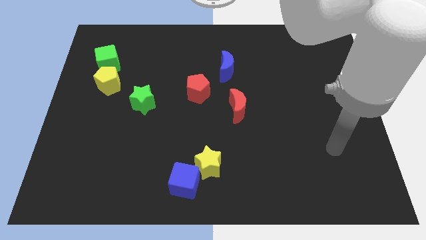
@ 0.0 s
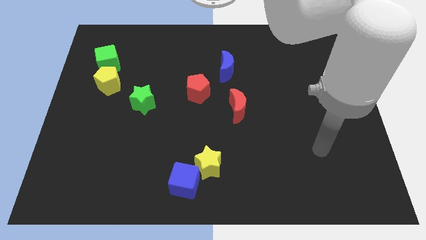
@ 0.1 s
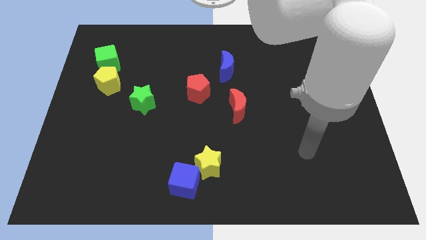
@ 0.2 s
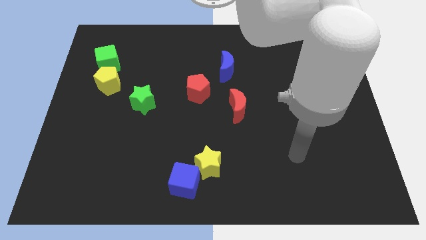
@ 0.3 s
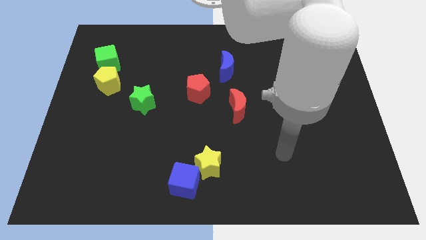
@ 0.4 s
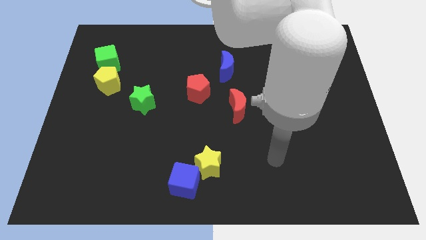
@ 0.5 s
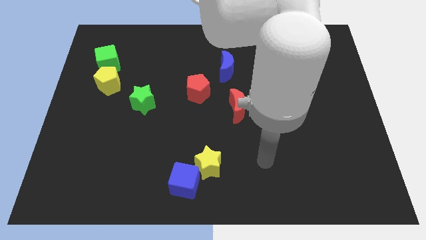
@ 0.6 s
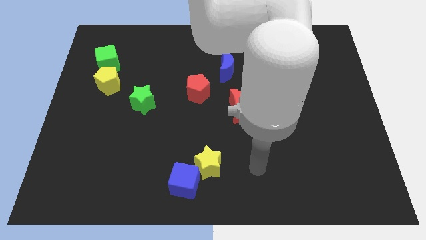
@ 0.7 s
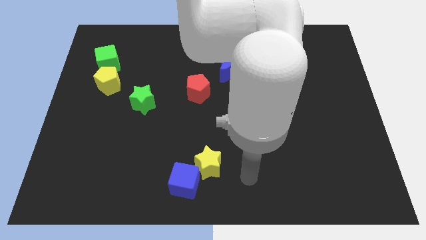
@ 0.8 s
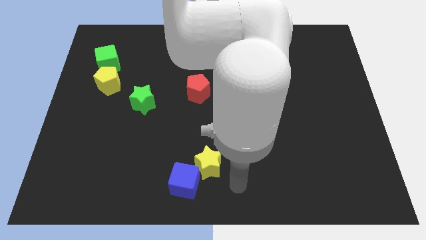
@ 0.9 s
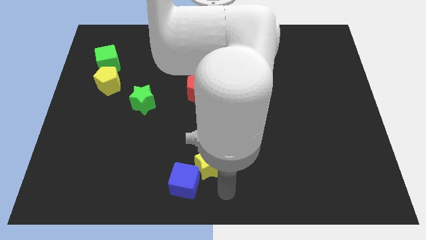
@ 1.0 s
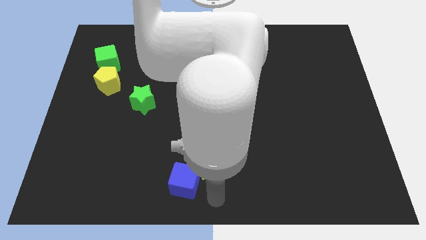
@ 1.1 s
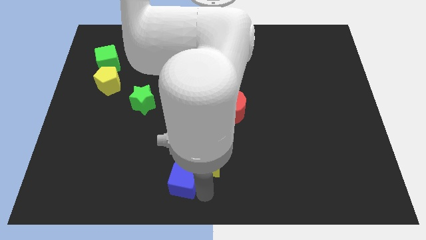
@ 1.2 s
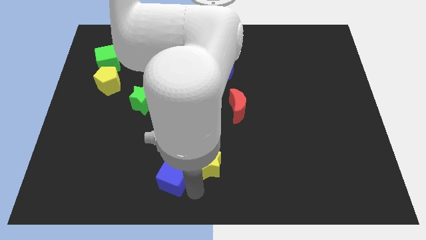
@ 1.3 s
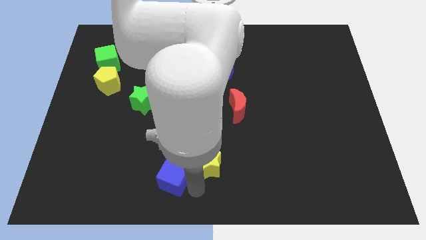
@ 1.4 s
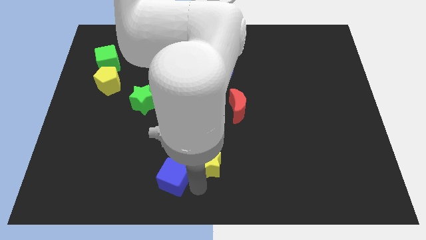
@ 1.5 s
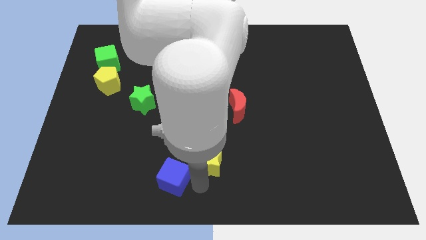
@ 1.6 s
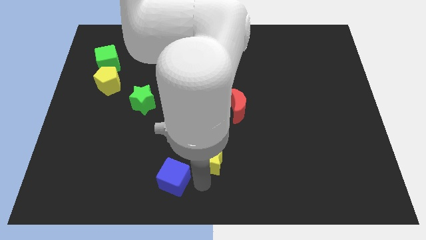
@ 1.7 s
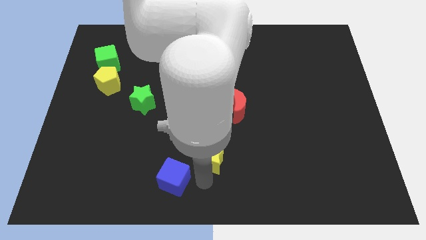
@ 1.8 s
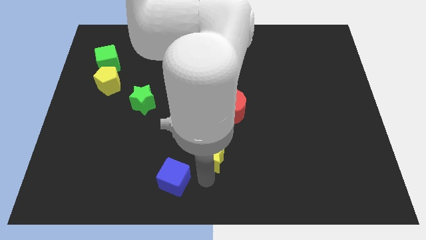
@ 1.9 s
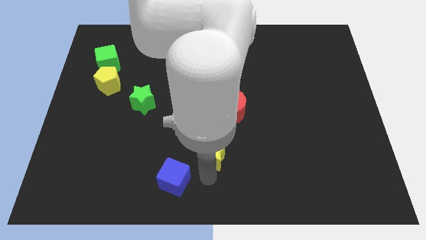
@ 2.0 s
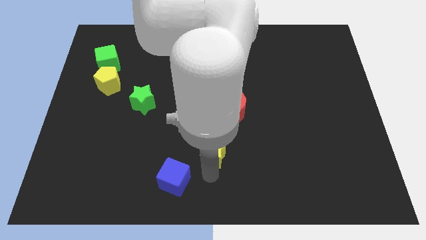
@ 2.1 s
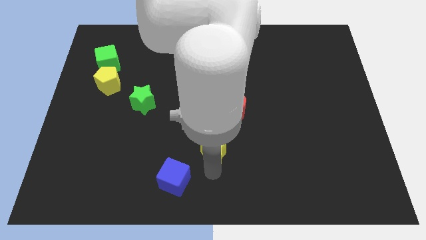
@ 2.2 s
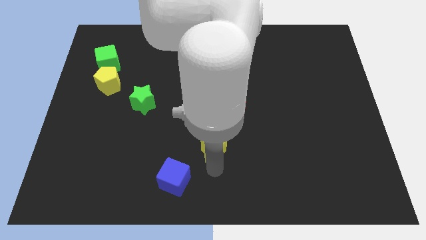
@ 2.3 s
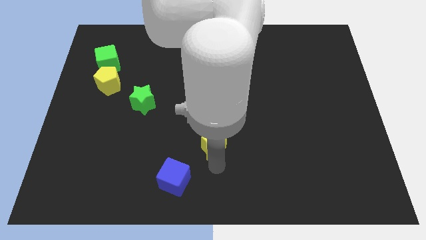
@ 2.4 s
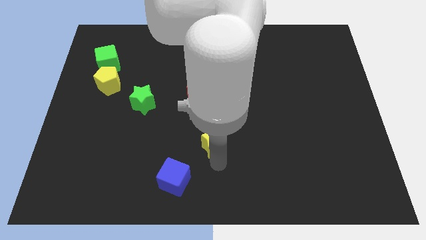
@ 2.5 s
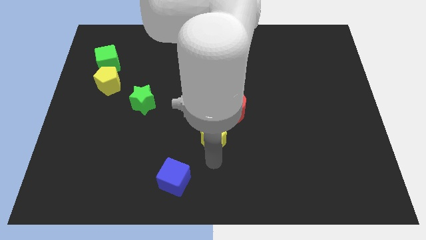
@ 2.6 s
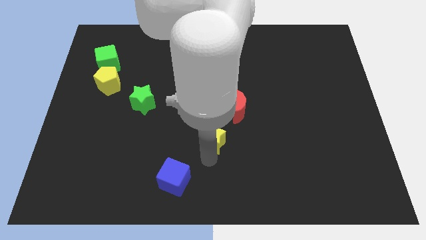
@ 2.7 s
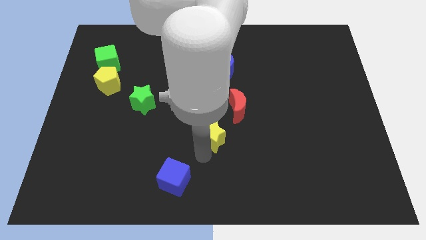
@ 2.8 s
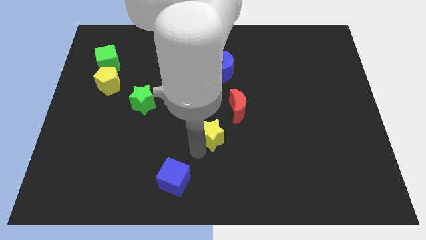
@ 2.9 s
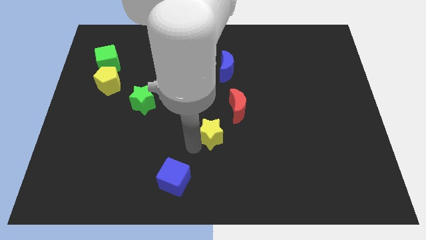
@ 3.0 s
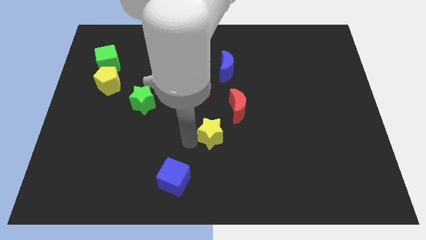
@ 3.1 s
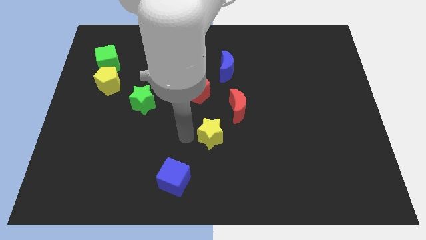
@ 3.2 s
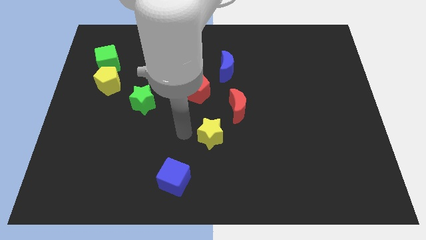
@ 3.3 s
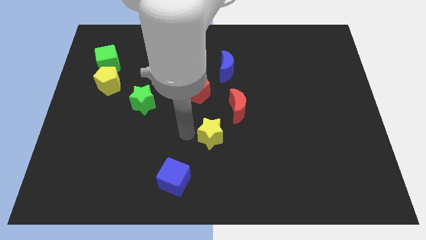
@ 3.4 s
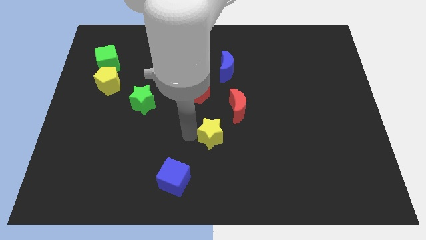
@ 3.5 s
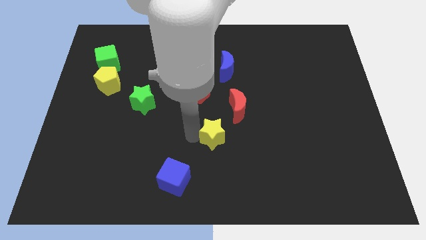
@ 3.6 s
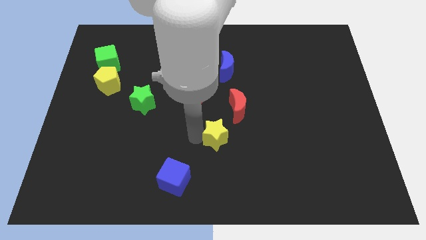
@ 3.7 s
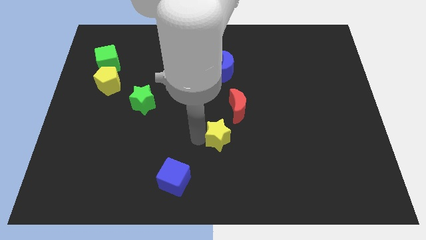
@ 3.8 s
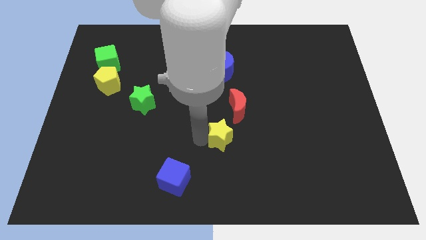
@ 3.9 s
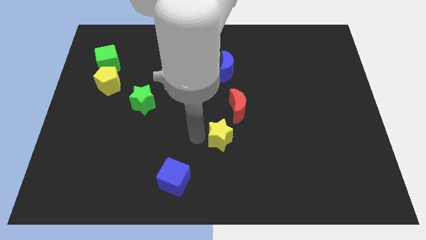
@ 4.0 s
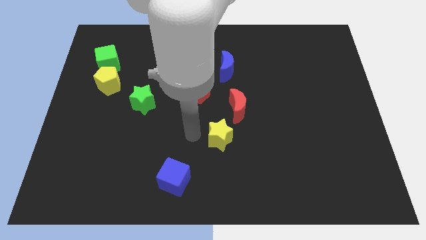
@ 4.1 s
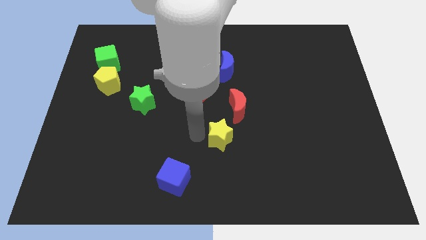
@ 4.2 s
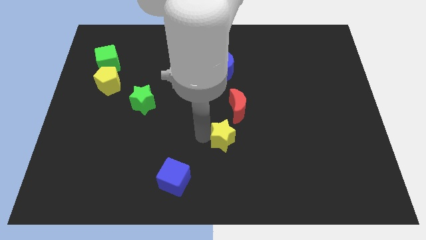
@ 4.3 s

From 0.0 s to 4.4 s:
push the yellow star up and to the right somewhat

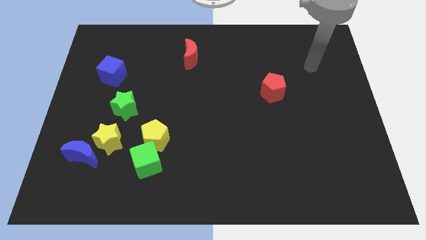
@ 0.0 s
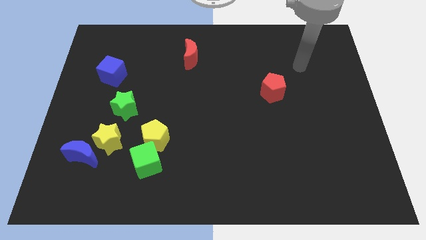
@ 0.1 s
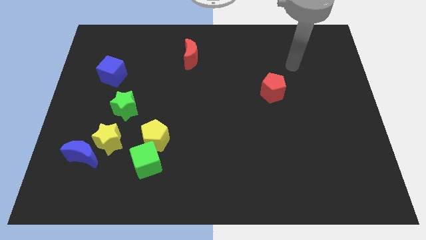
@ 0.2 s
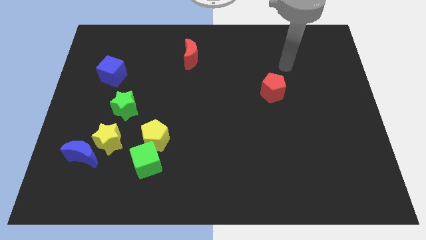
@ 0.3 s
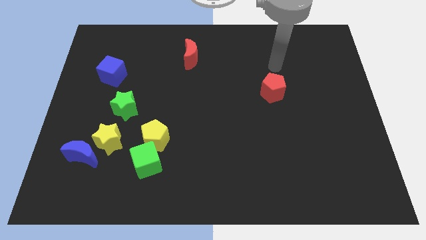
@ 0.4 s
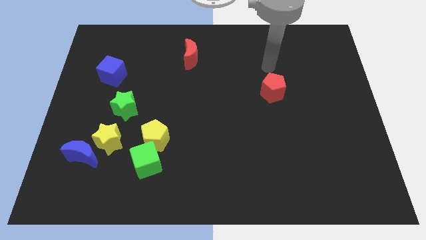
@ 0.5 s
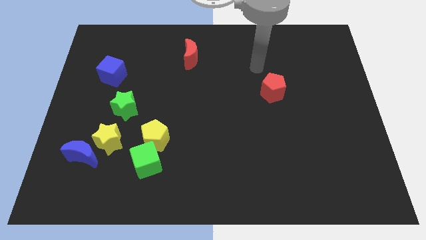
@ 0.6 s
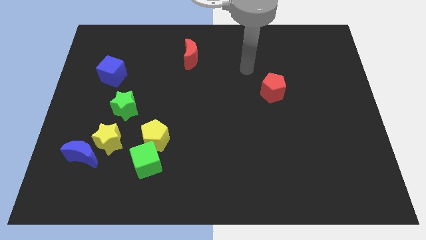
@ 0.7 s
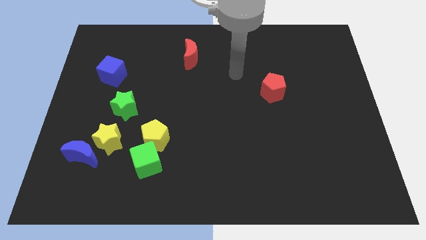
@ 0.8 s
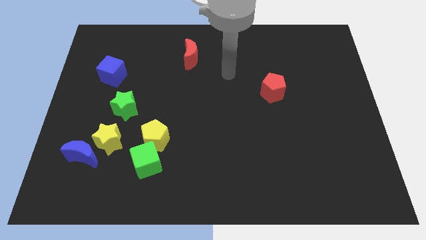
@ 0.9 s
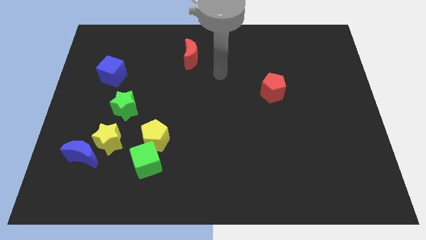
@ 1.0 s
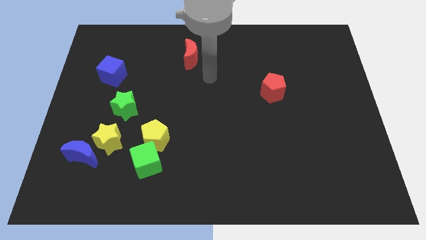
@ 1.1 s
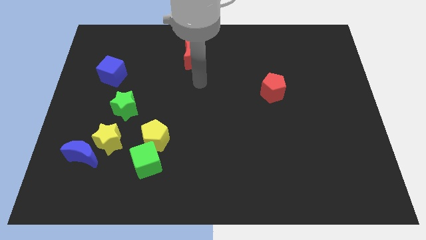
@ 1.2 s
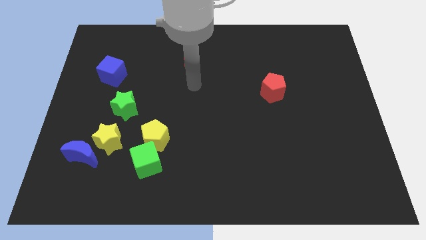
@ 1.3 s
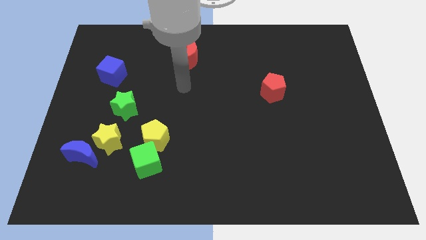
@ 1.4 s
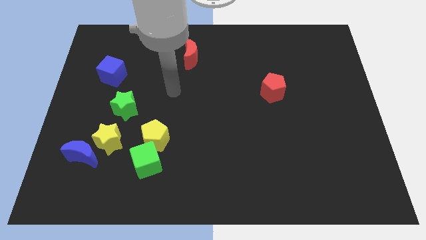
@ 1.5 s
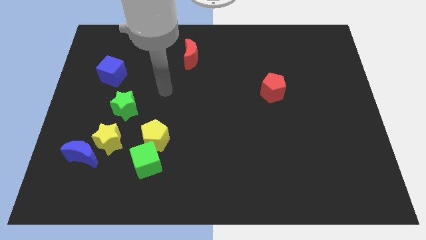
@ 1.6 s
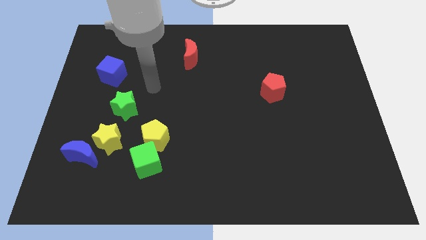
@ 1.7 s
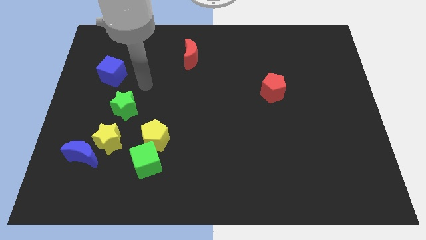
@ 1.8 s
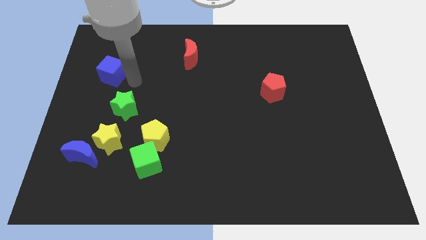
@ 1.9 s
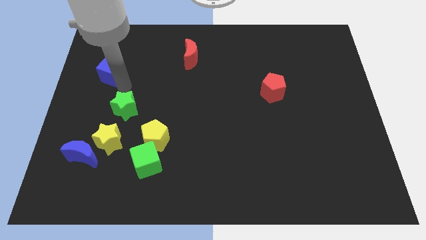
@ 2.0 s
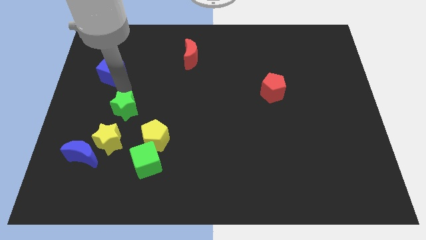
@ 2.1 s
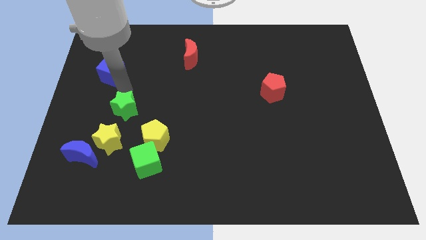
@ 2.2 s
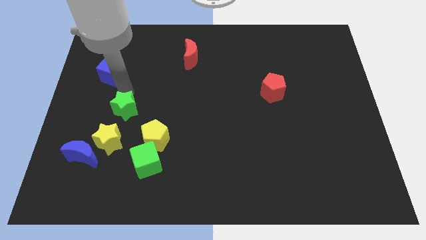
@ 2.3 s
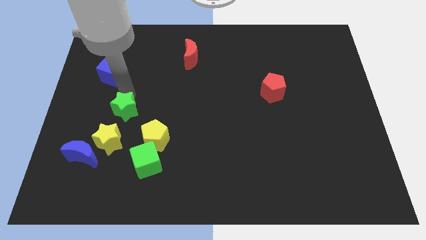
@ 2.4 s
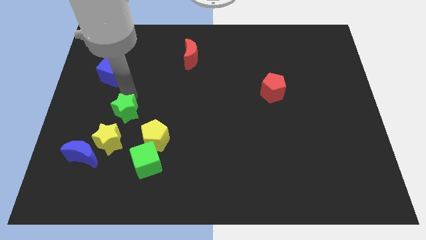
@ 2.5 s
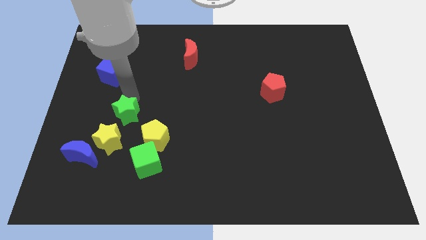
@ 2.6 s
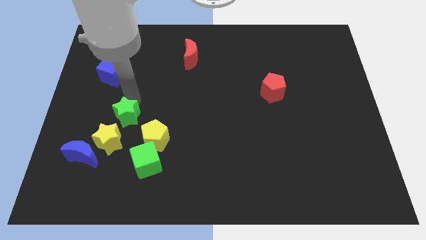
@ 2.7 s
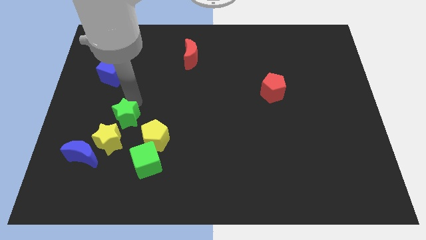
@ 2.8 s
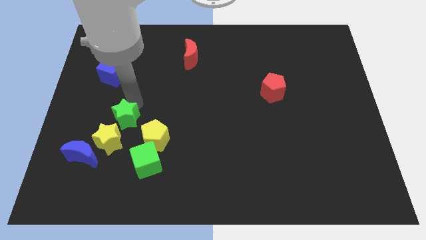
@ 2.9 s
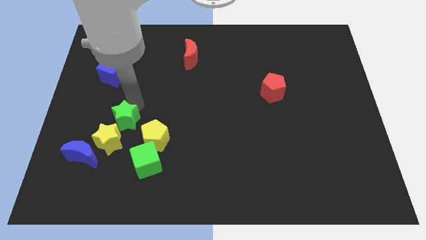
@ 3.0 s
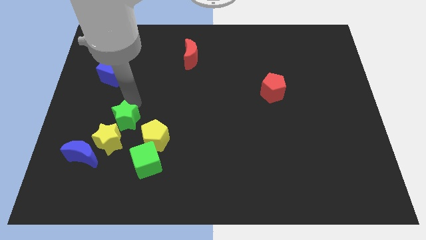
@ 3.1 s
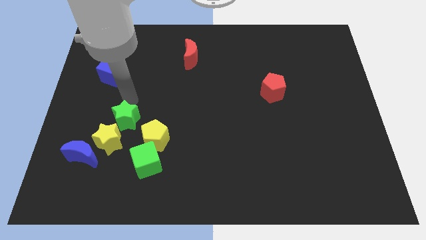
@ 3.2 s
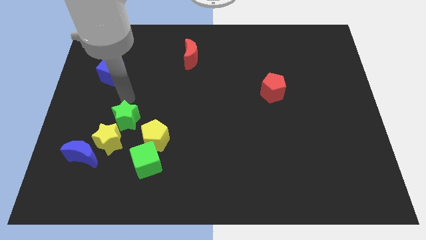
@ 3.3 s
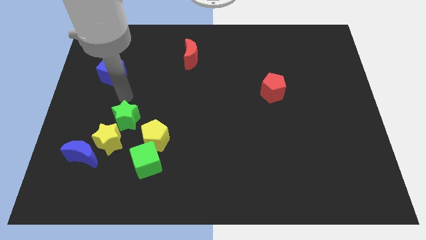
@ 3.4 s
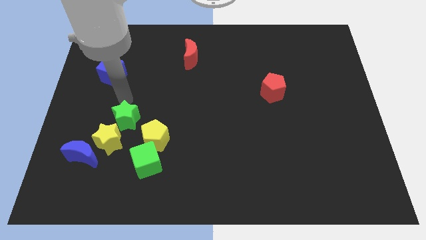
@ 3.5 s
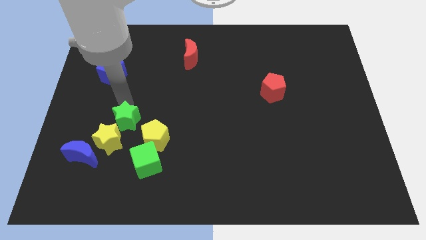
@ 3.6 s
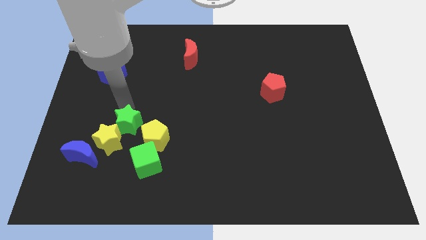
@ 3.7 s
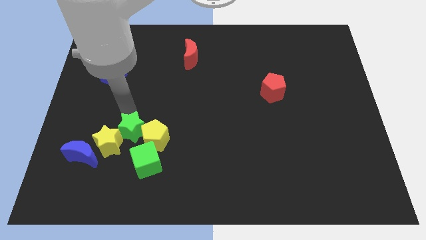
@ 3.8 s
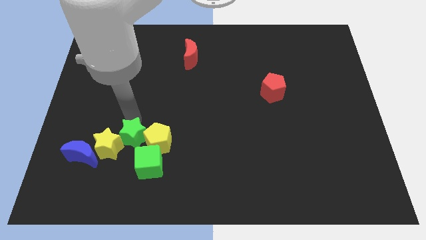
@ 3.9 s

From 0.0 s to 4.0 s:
slide the green star slightly down
